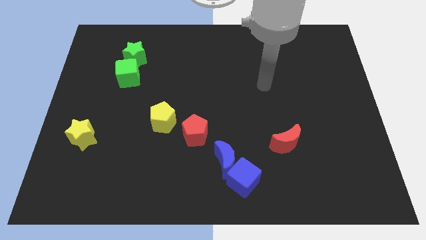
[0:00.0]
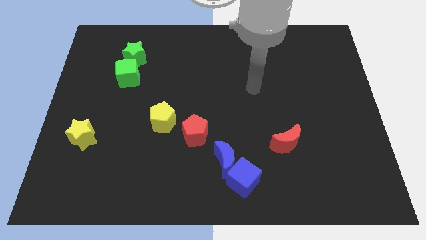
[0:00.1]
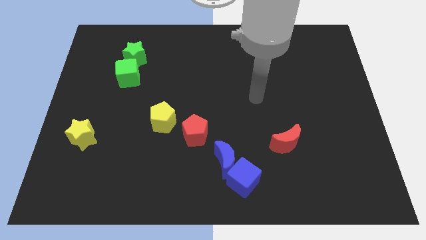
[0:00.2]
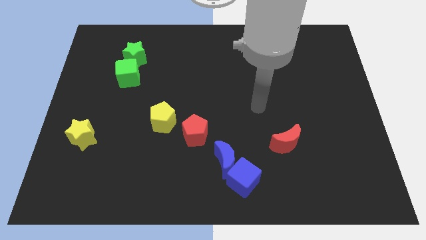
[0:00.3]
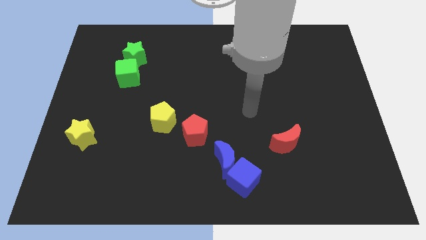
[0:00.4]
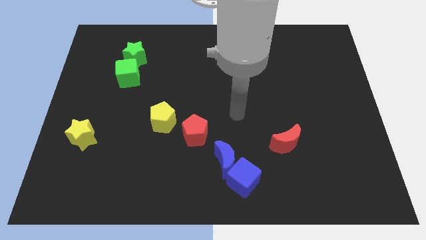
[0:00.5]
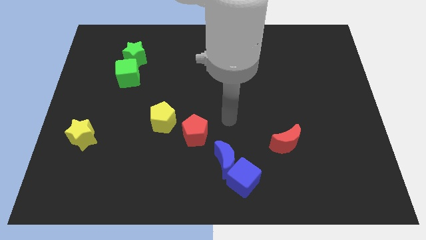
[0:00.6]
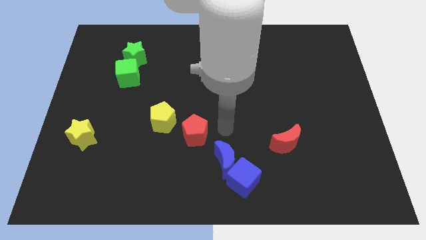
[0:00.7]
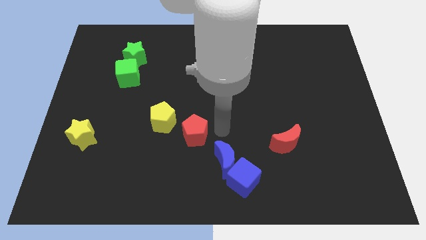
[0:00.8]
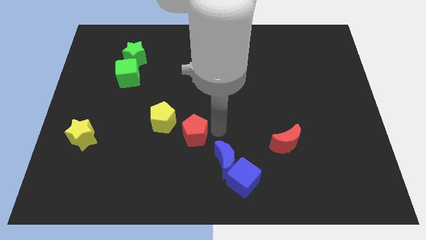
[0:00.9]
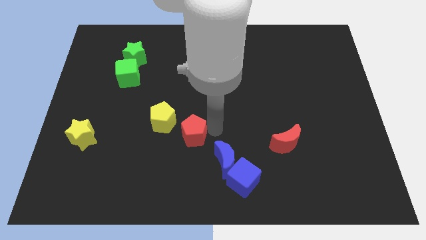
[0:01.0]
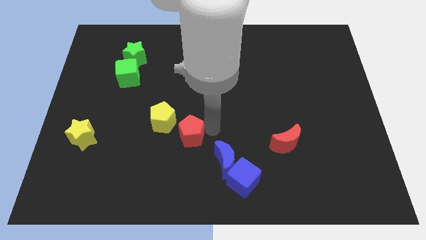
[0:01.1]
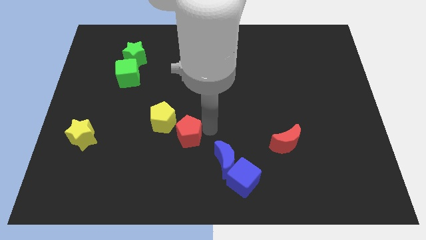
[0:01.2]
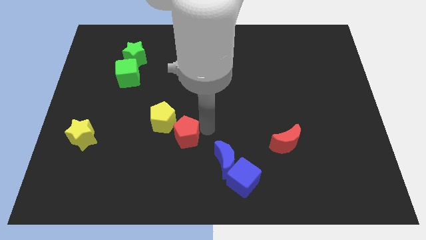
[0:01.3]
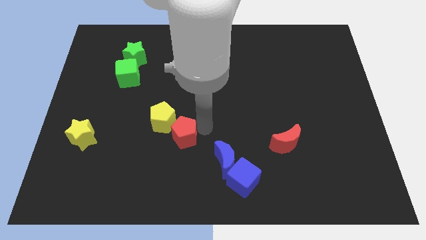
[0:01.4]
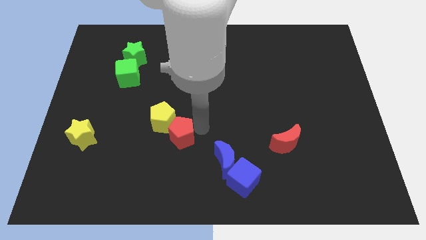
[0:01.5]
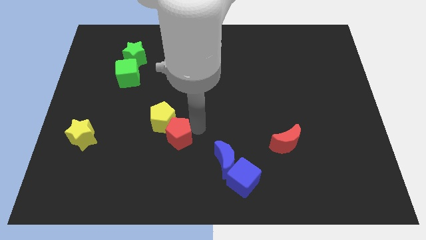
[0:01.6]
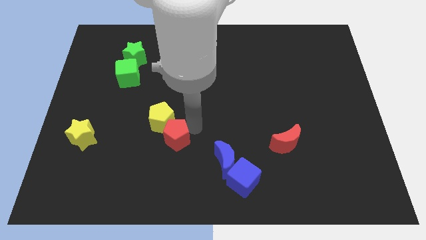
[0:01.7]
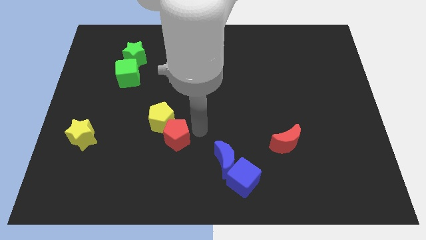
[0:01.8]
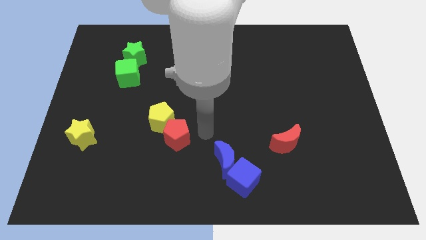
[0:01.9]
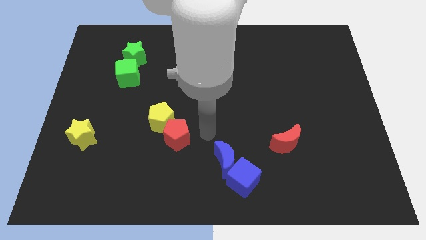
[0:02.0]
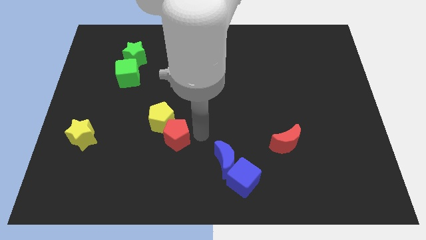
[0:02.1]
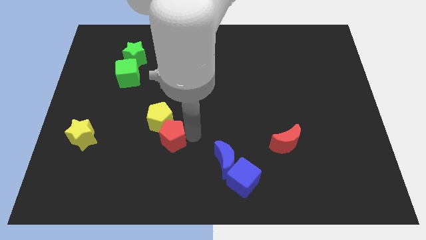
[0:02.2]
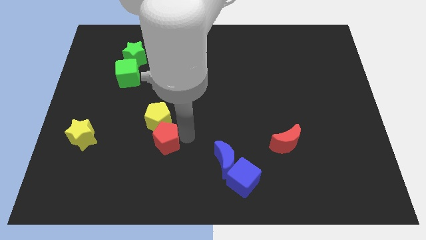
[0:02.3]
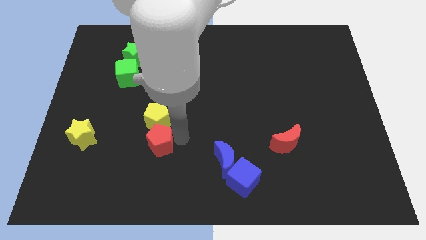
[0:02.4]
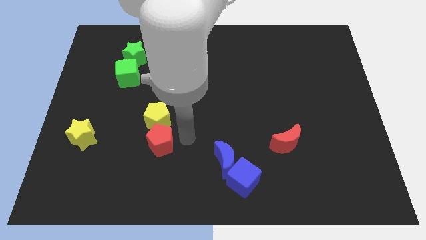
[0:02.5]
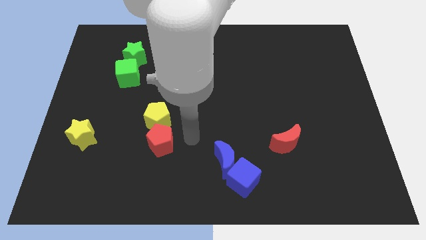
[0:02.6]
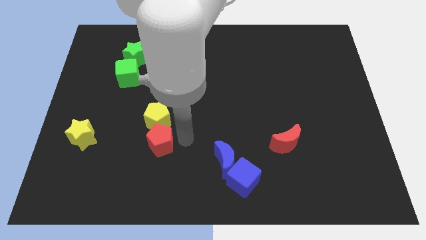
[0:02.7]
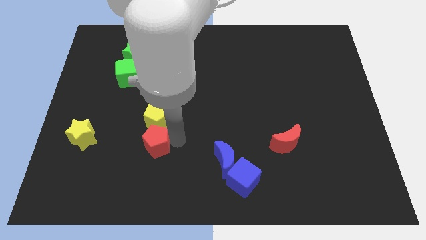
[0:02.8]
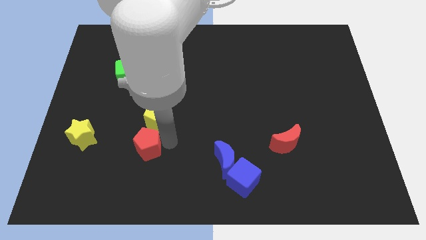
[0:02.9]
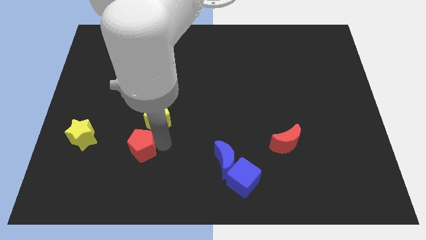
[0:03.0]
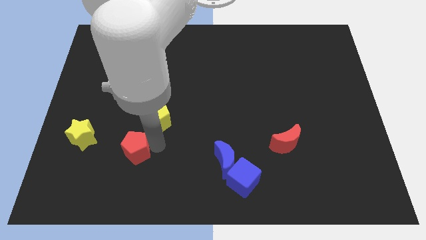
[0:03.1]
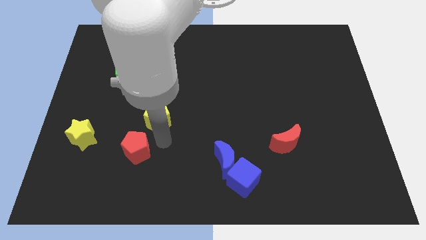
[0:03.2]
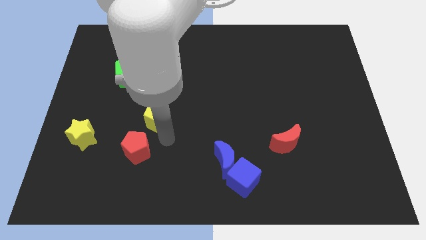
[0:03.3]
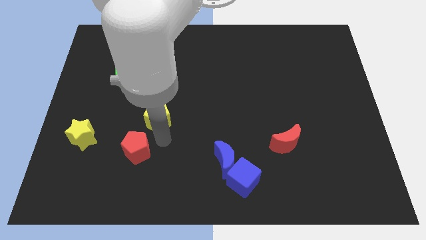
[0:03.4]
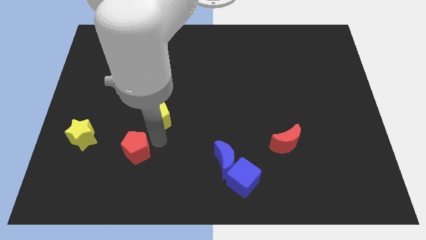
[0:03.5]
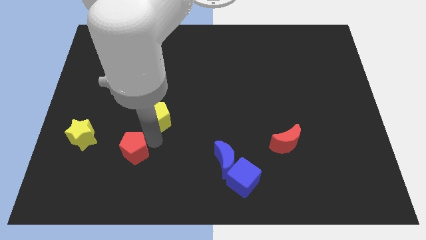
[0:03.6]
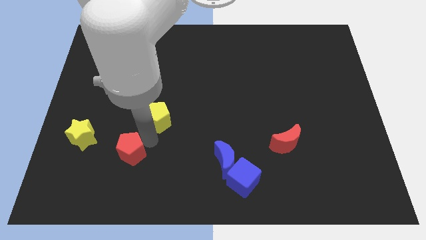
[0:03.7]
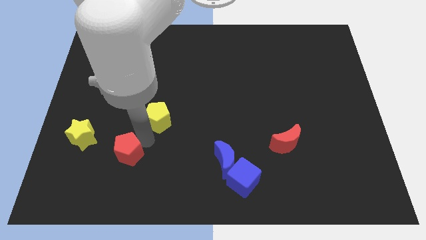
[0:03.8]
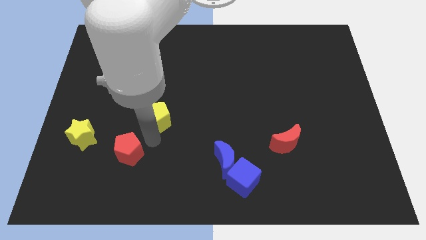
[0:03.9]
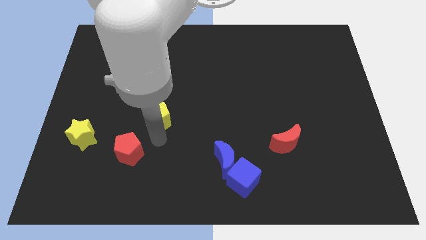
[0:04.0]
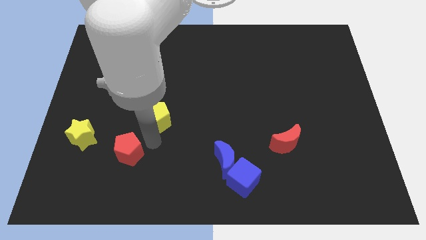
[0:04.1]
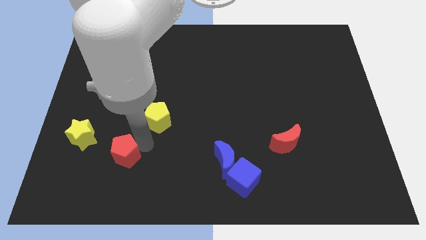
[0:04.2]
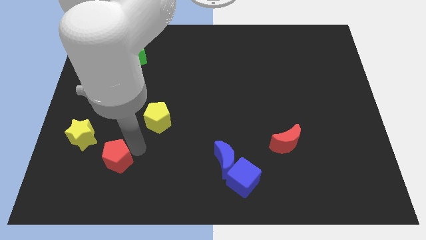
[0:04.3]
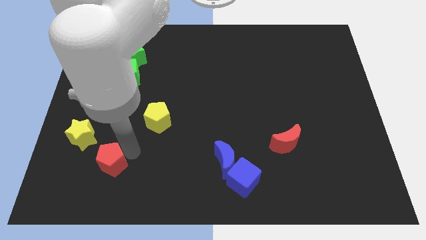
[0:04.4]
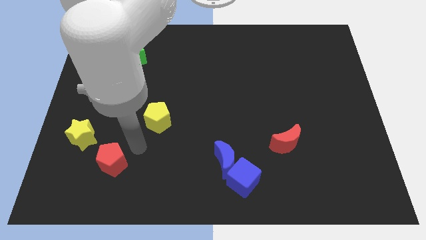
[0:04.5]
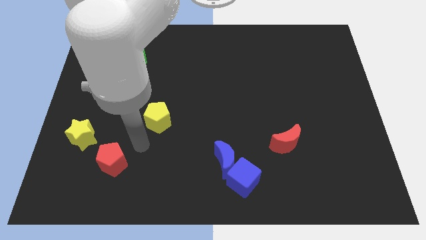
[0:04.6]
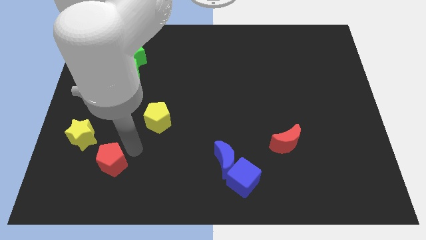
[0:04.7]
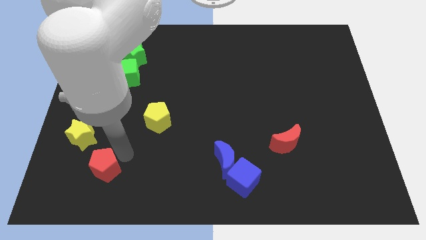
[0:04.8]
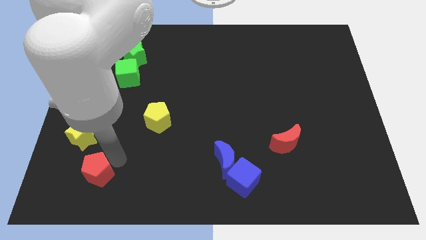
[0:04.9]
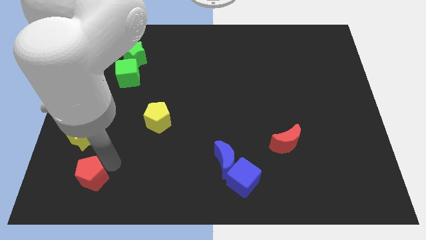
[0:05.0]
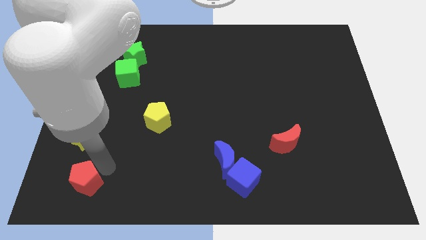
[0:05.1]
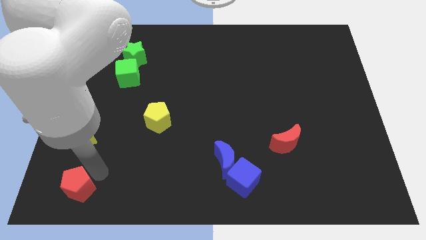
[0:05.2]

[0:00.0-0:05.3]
move the red pentagon to the bottom left corner
